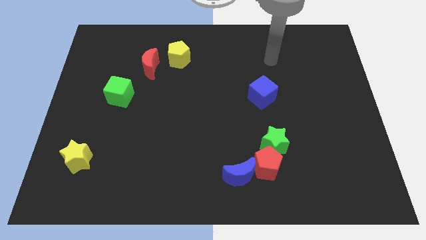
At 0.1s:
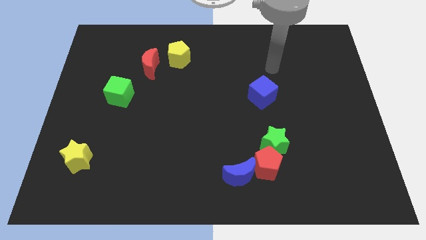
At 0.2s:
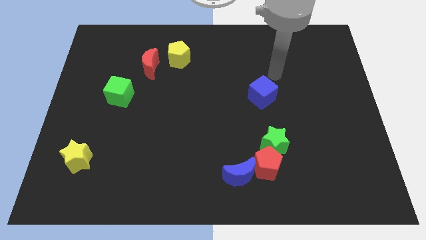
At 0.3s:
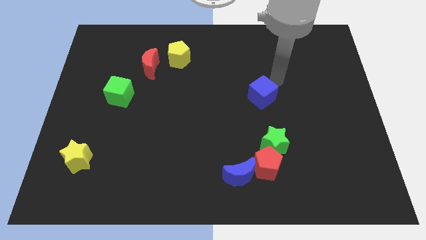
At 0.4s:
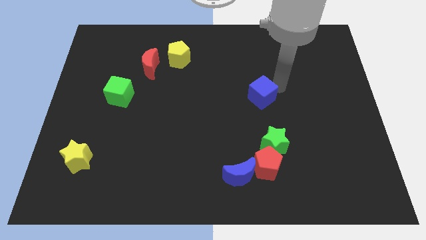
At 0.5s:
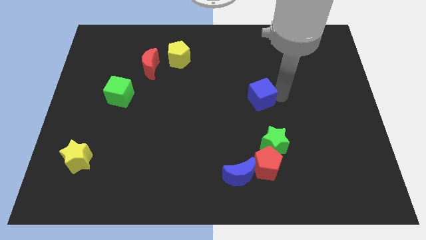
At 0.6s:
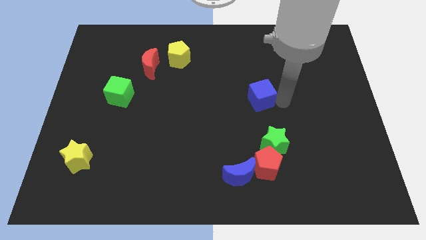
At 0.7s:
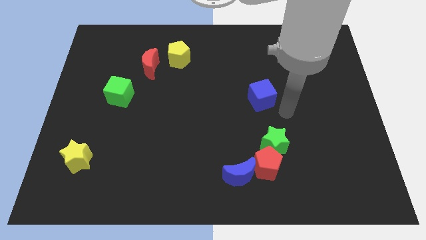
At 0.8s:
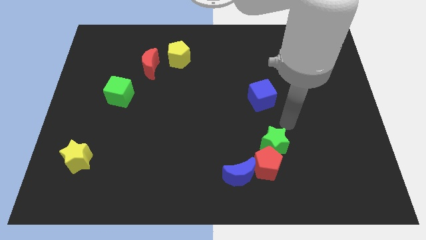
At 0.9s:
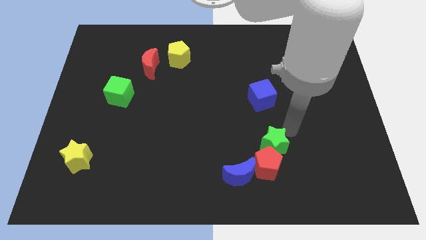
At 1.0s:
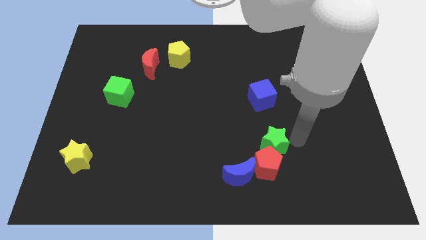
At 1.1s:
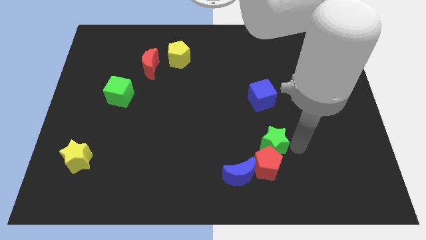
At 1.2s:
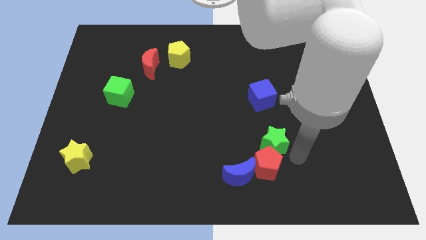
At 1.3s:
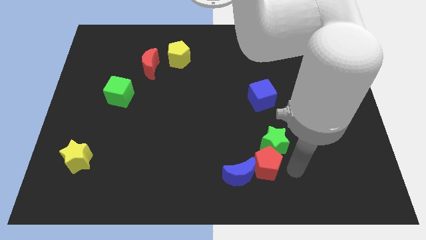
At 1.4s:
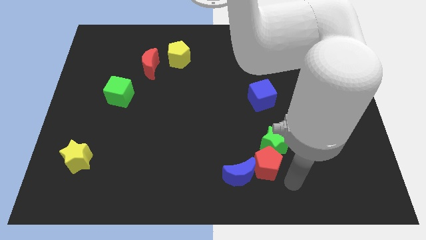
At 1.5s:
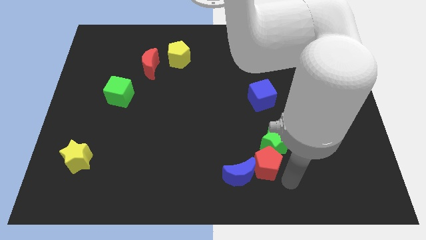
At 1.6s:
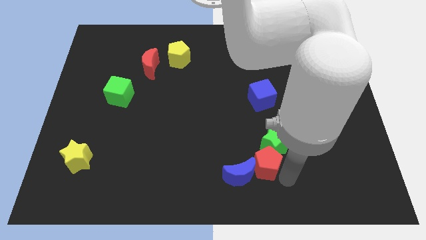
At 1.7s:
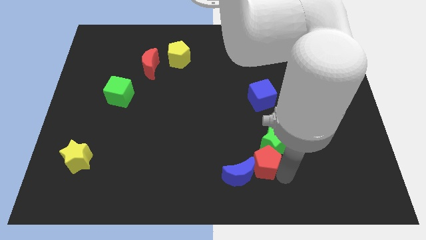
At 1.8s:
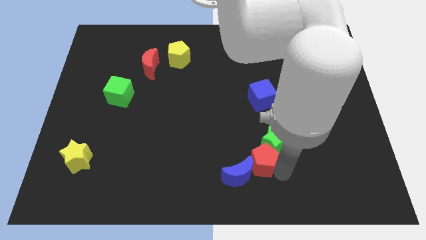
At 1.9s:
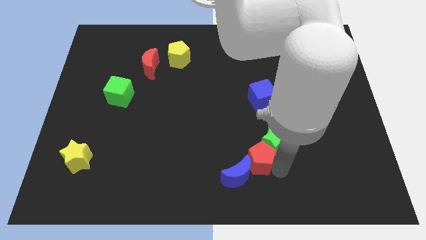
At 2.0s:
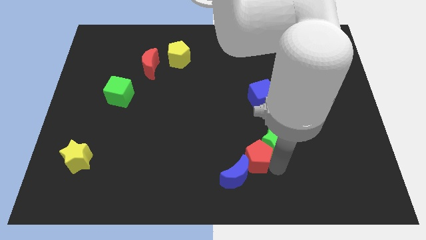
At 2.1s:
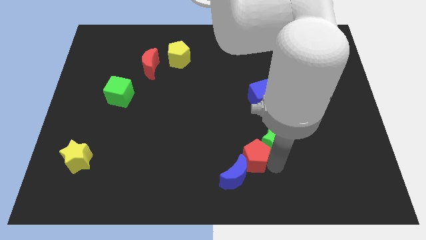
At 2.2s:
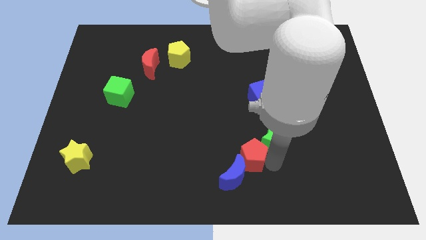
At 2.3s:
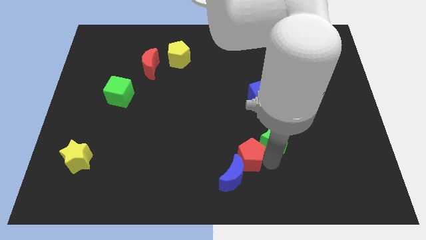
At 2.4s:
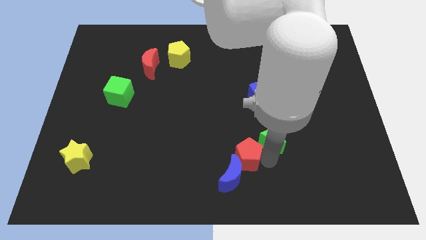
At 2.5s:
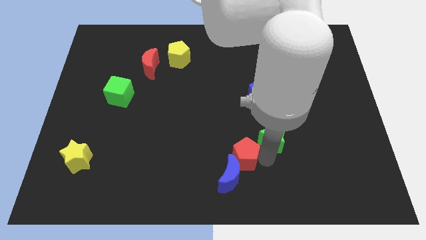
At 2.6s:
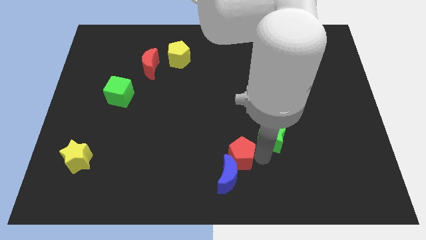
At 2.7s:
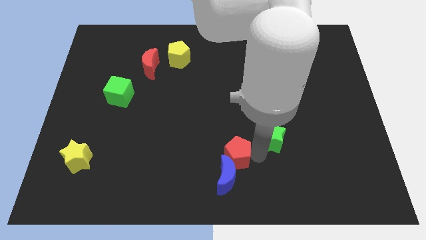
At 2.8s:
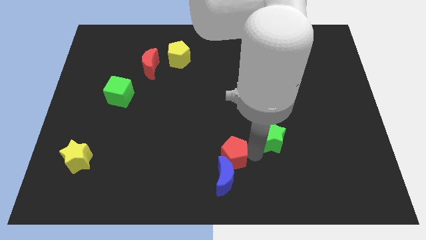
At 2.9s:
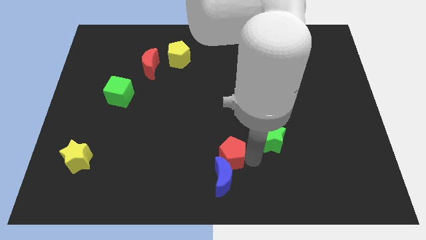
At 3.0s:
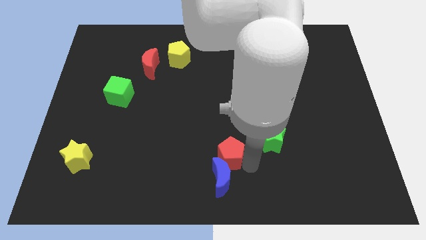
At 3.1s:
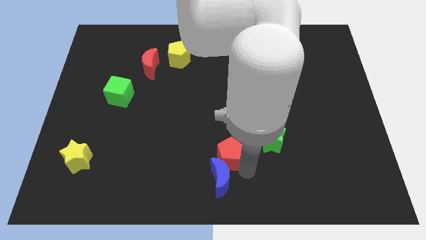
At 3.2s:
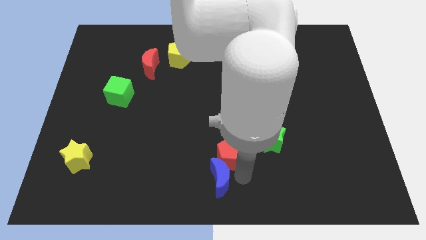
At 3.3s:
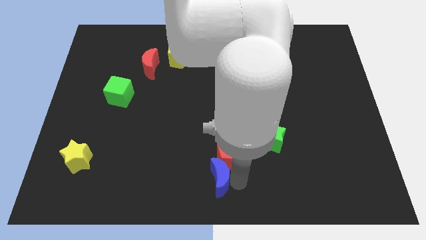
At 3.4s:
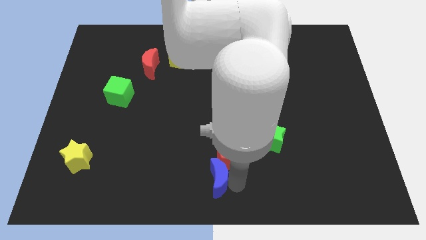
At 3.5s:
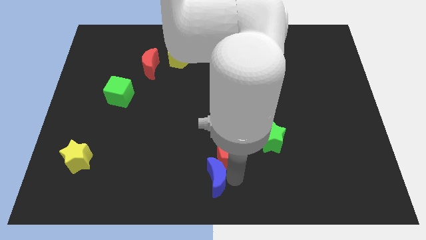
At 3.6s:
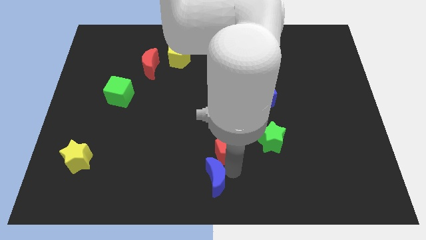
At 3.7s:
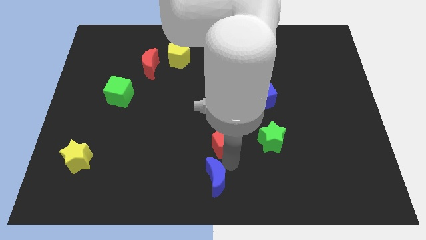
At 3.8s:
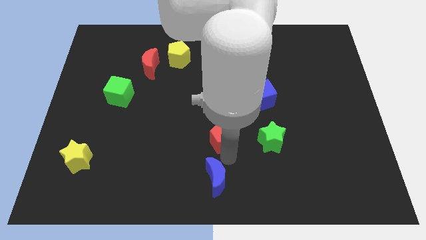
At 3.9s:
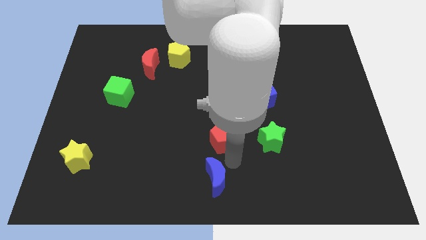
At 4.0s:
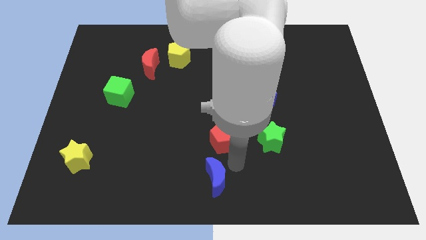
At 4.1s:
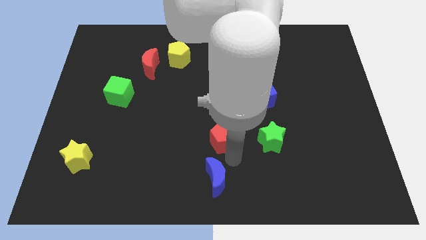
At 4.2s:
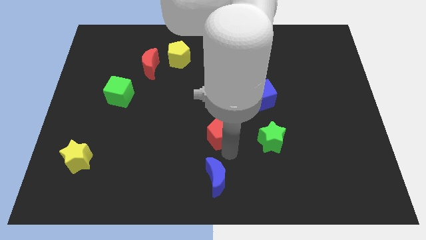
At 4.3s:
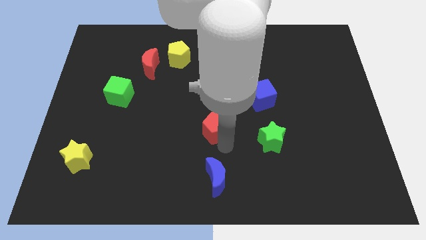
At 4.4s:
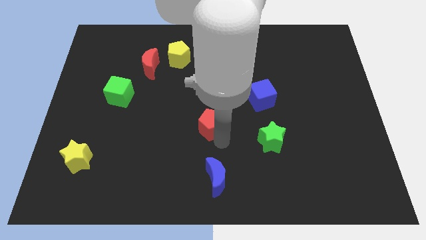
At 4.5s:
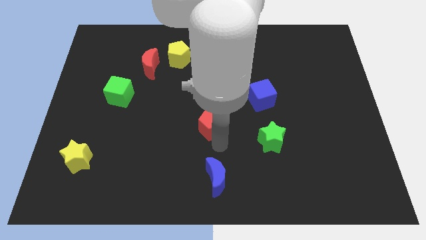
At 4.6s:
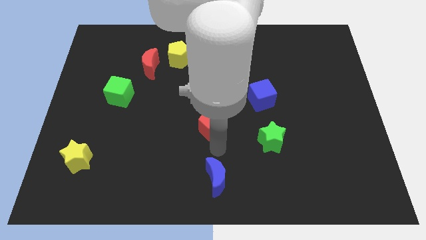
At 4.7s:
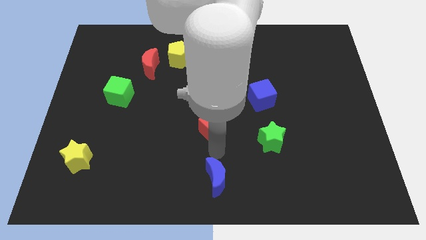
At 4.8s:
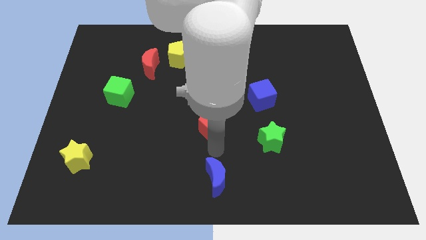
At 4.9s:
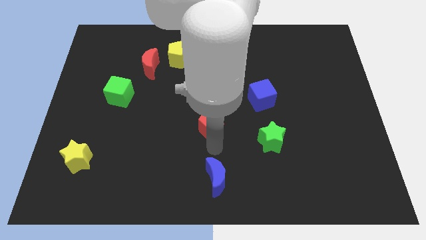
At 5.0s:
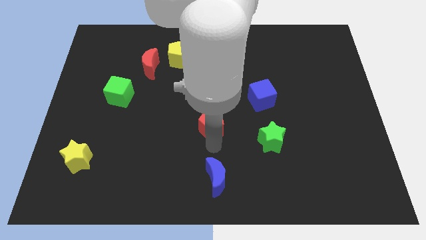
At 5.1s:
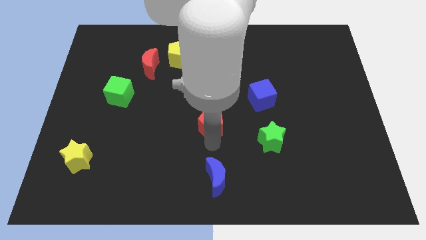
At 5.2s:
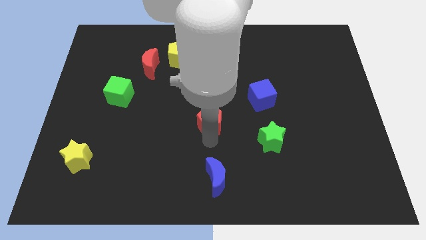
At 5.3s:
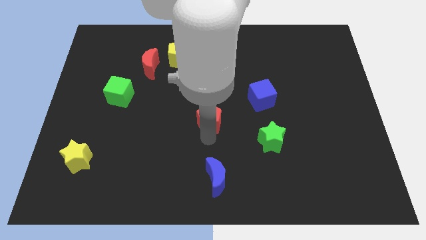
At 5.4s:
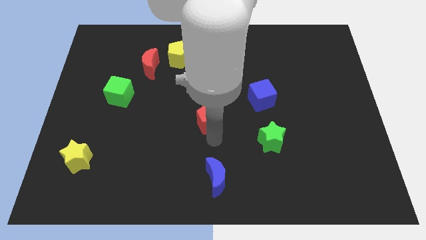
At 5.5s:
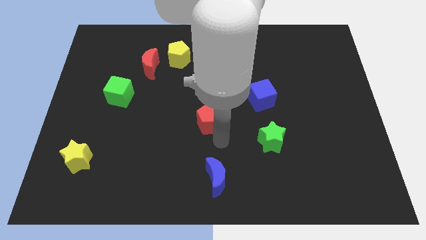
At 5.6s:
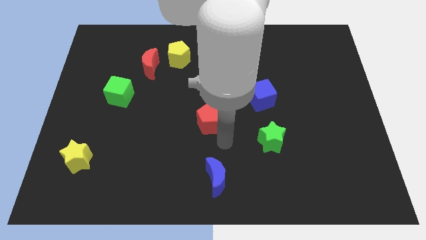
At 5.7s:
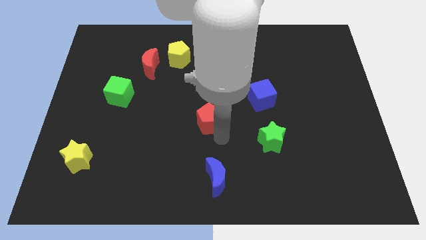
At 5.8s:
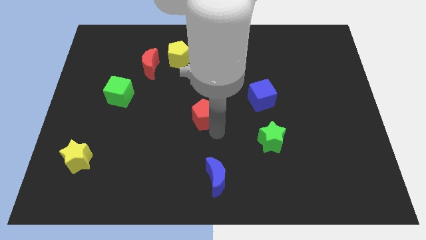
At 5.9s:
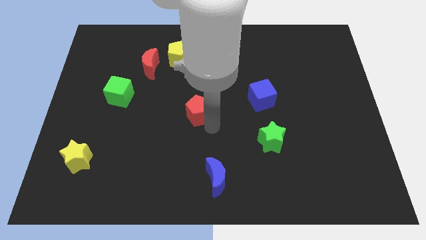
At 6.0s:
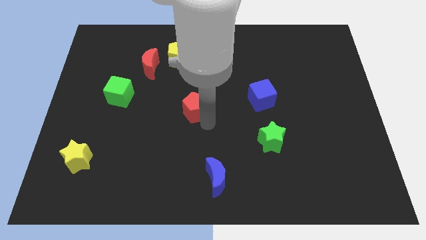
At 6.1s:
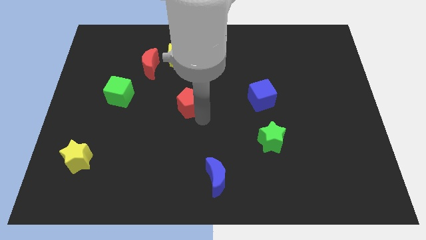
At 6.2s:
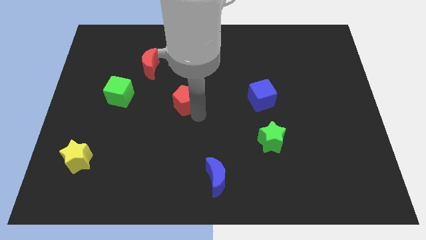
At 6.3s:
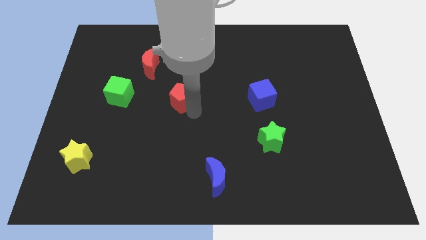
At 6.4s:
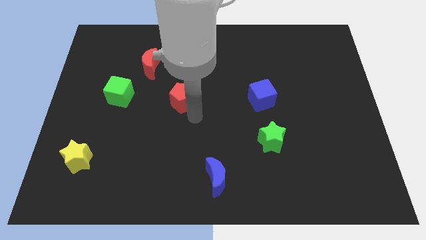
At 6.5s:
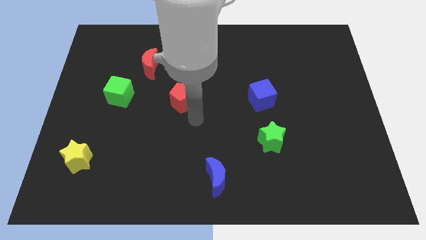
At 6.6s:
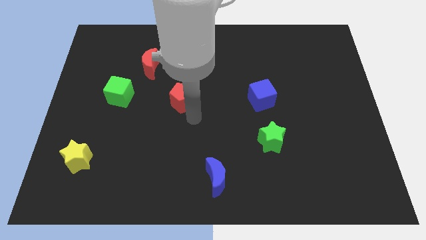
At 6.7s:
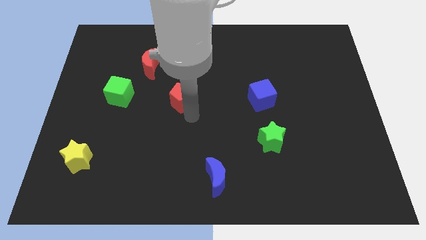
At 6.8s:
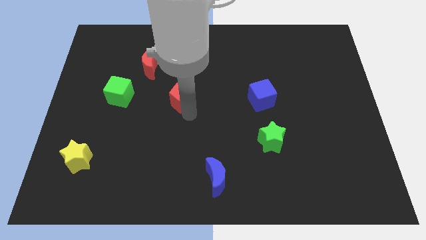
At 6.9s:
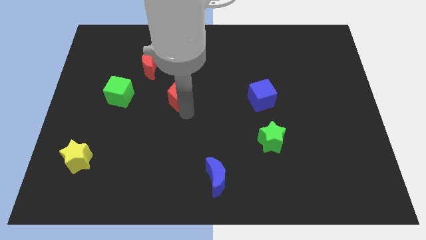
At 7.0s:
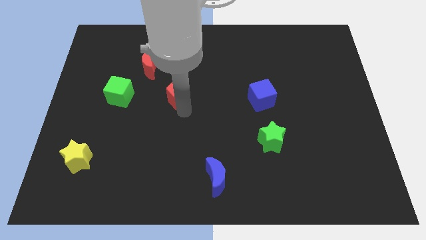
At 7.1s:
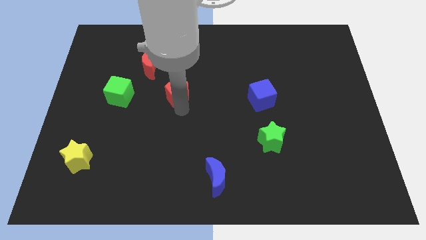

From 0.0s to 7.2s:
put the red pentagon to the bottom right of the red moon
